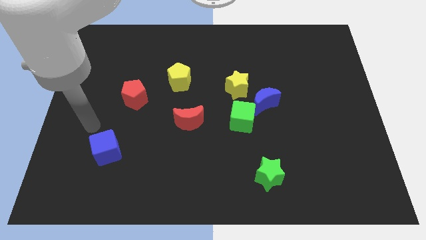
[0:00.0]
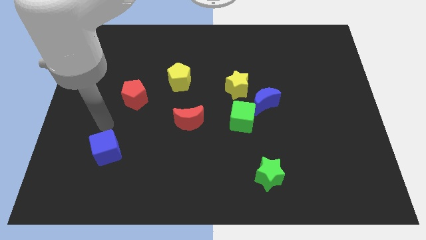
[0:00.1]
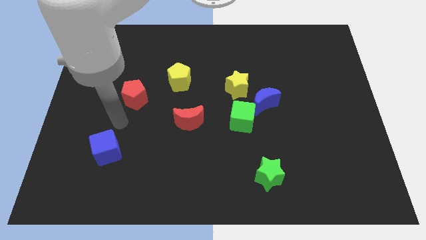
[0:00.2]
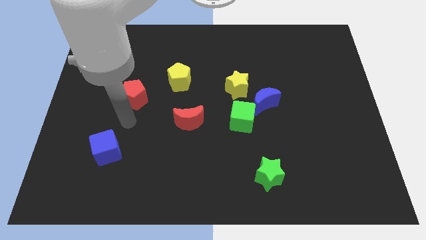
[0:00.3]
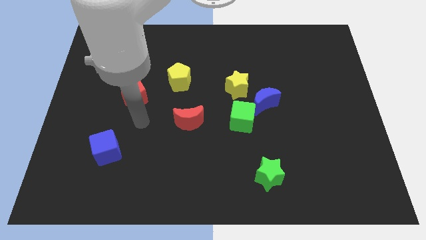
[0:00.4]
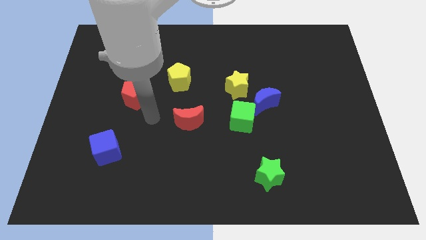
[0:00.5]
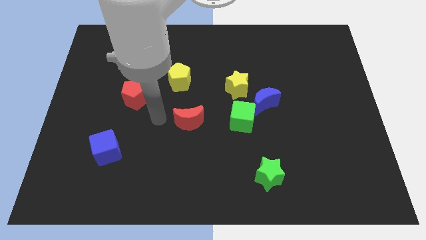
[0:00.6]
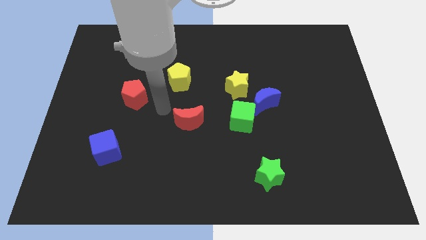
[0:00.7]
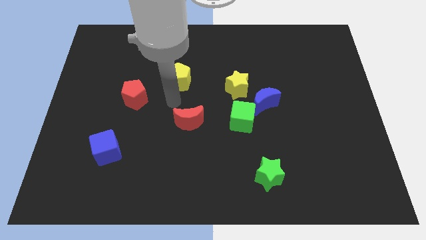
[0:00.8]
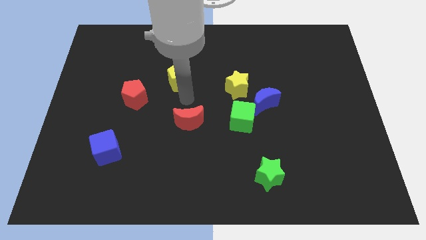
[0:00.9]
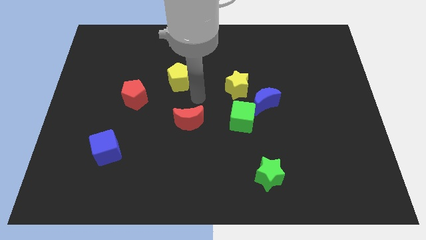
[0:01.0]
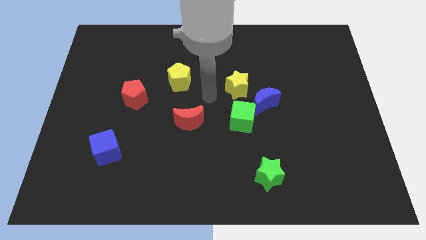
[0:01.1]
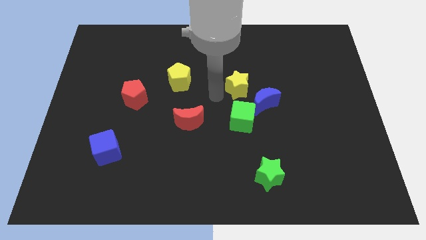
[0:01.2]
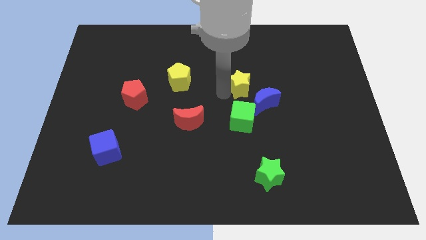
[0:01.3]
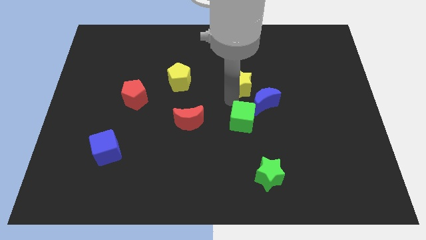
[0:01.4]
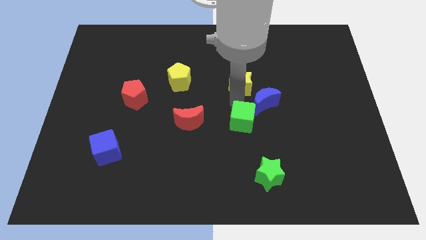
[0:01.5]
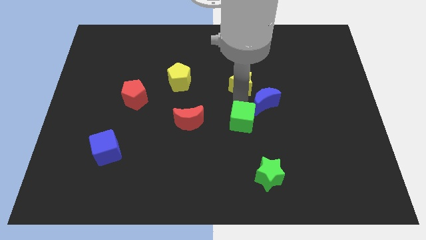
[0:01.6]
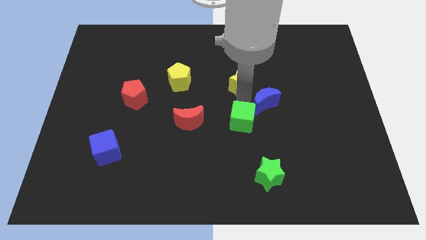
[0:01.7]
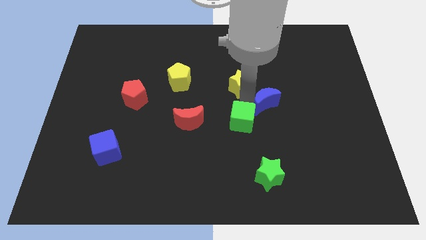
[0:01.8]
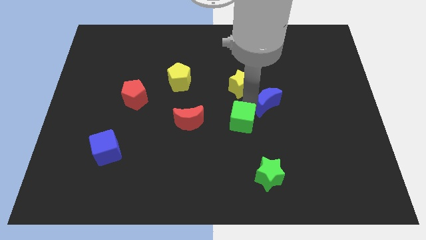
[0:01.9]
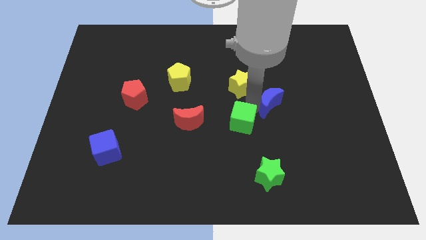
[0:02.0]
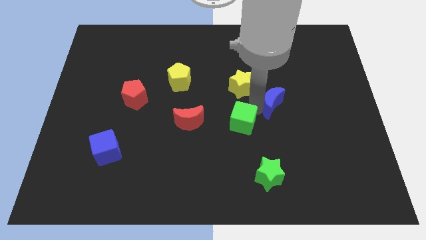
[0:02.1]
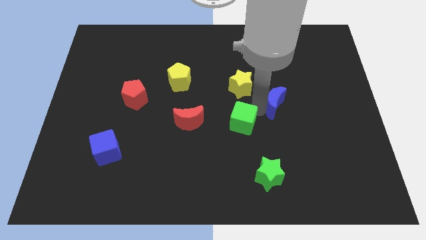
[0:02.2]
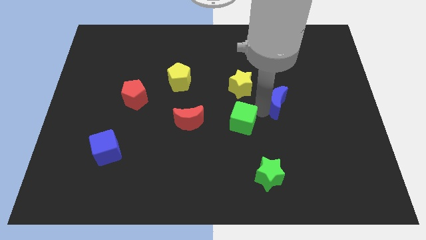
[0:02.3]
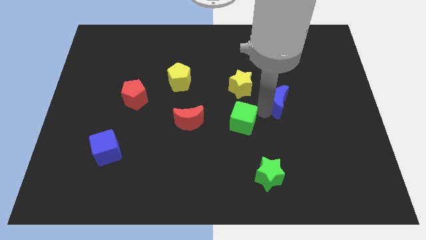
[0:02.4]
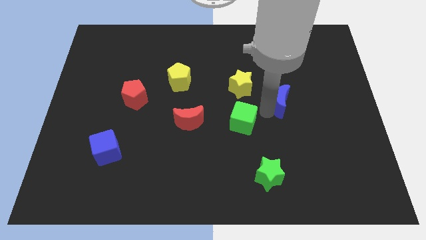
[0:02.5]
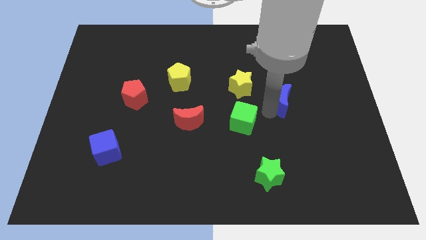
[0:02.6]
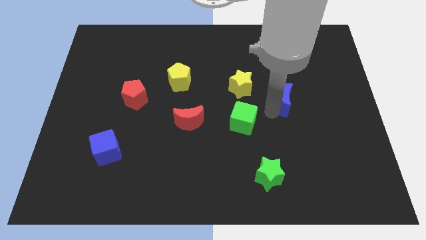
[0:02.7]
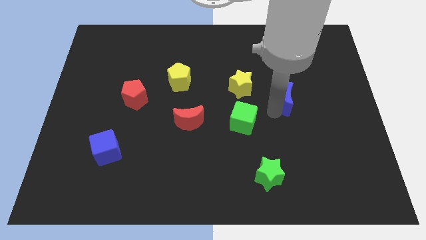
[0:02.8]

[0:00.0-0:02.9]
pull the blue moon apart from the green cube and yellow star

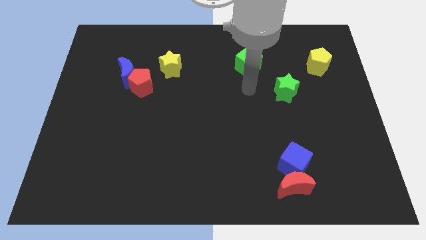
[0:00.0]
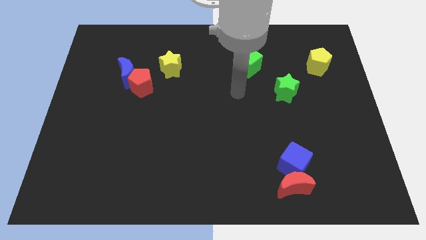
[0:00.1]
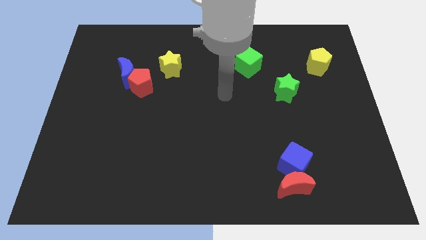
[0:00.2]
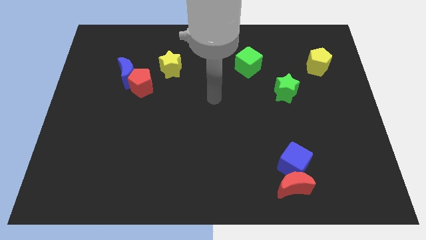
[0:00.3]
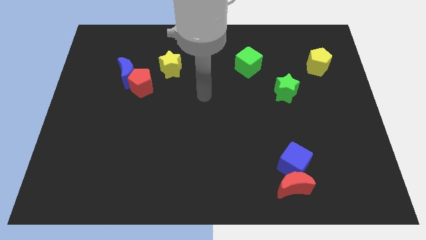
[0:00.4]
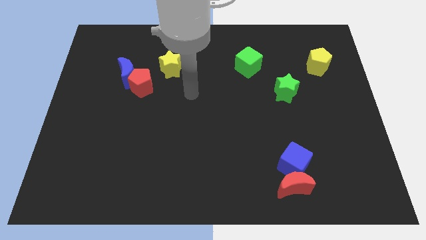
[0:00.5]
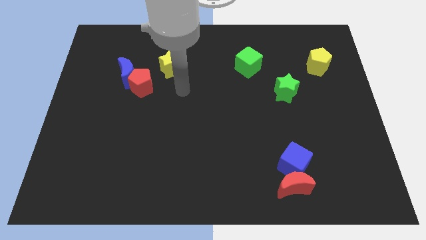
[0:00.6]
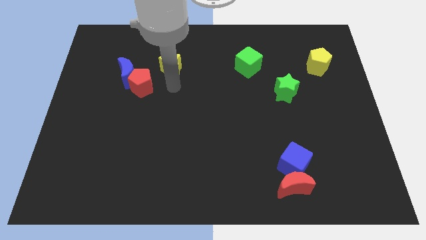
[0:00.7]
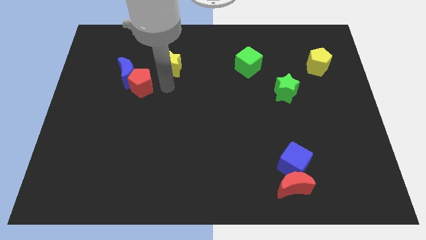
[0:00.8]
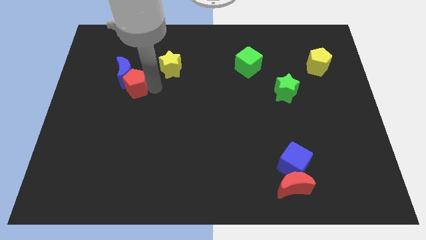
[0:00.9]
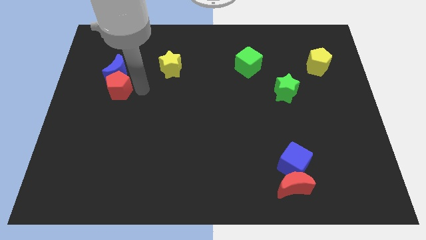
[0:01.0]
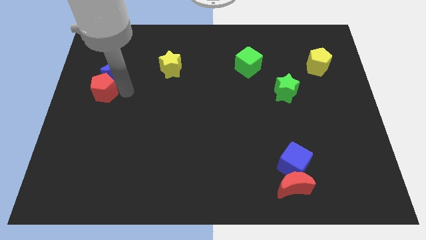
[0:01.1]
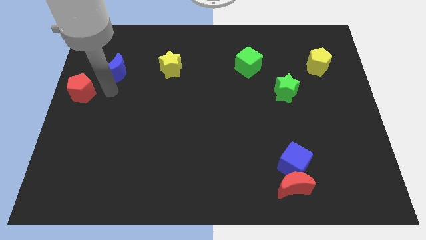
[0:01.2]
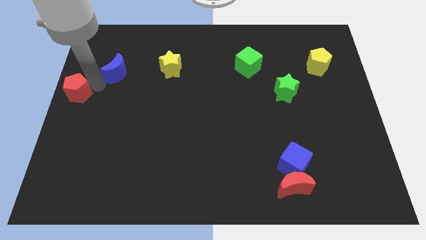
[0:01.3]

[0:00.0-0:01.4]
separate the blue moon from the red pentagon

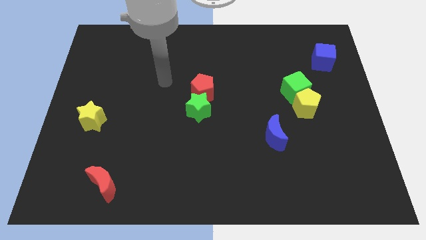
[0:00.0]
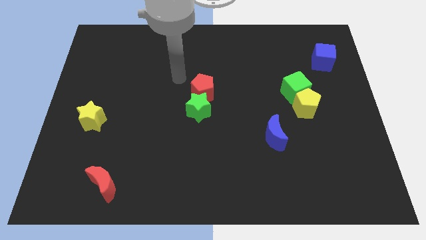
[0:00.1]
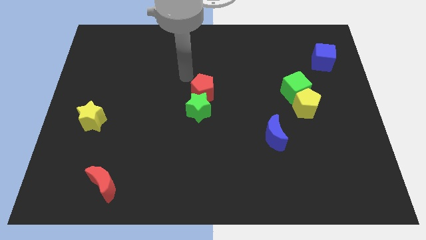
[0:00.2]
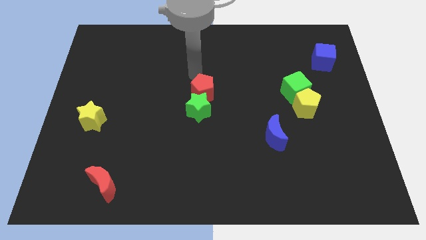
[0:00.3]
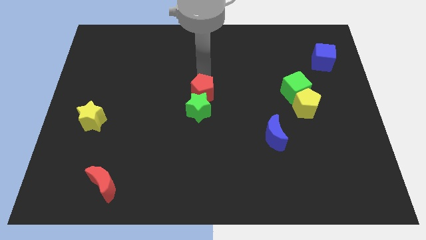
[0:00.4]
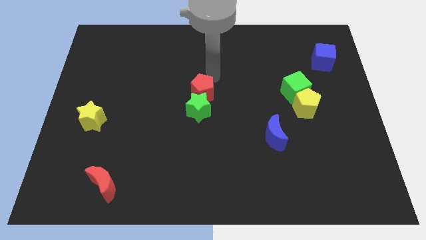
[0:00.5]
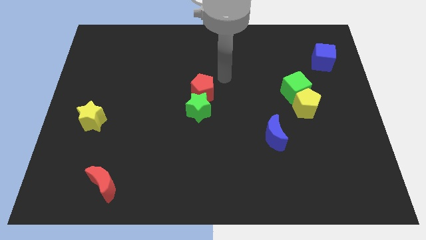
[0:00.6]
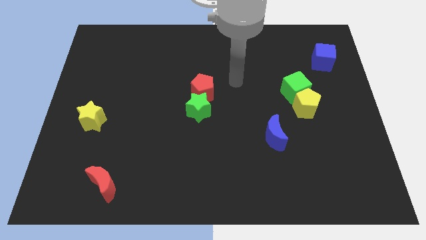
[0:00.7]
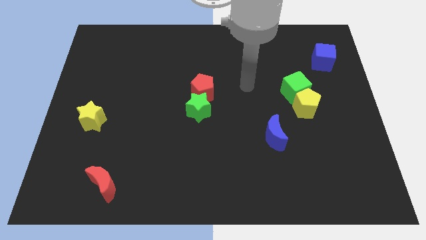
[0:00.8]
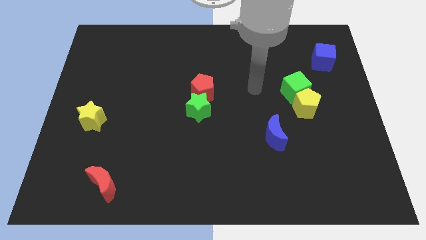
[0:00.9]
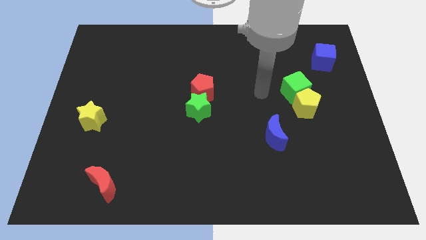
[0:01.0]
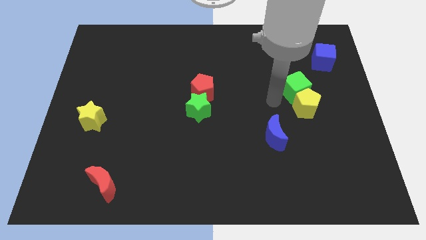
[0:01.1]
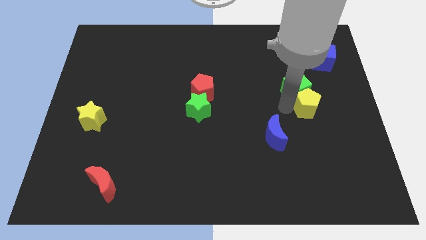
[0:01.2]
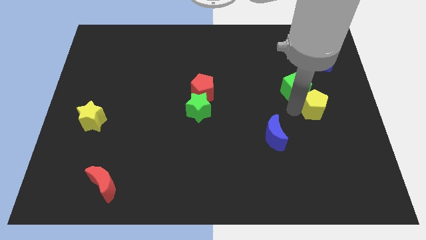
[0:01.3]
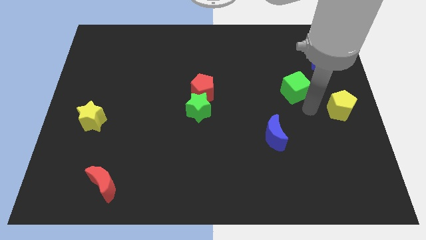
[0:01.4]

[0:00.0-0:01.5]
pull the green cube apart from the yellow pentagon

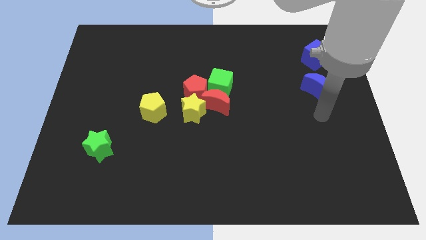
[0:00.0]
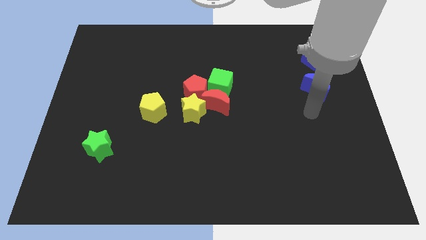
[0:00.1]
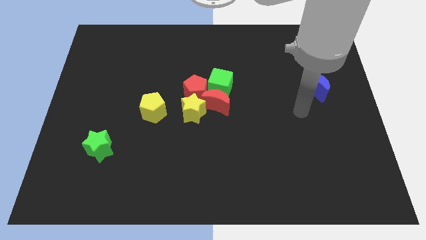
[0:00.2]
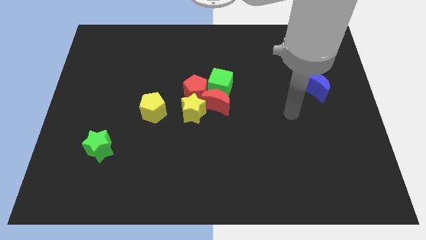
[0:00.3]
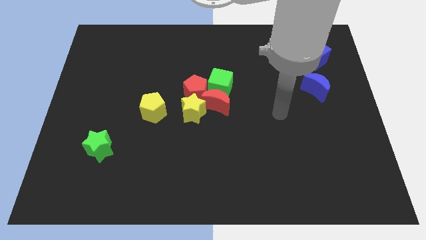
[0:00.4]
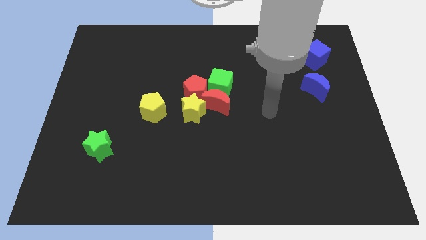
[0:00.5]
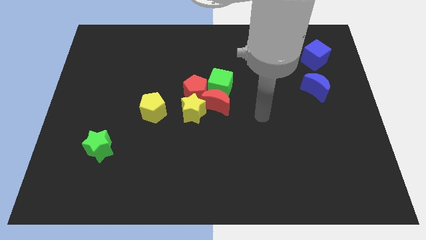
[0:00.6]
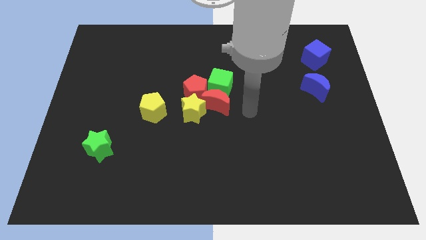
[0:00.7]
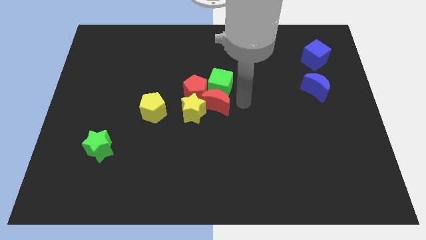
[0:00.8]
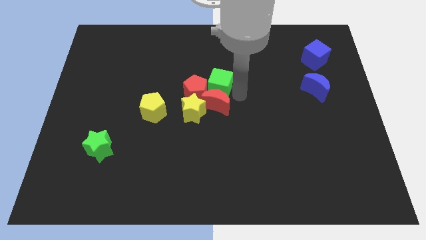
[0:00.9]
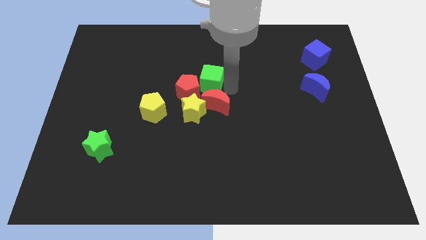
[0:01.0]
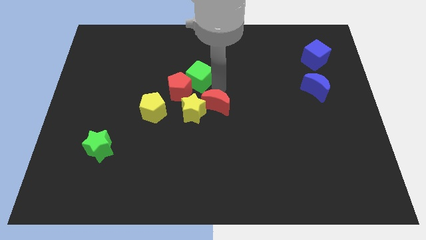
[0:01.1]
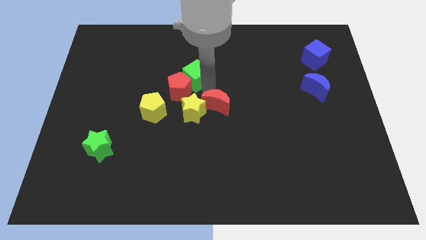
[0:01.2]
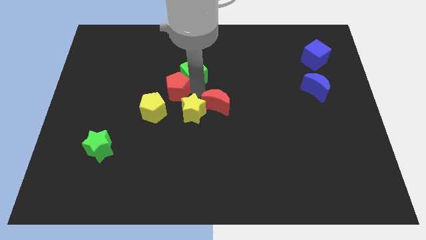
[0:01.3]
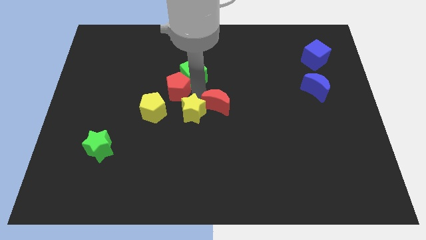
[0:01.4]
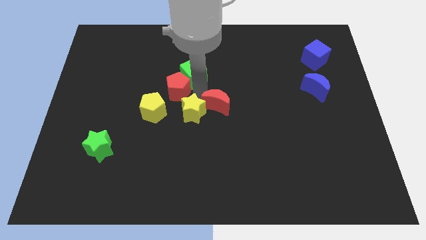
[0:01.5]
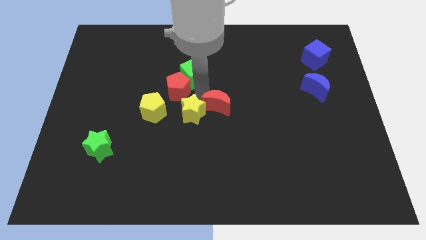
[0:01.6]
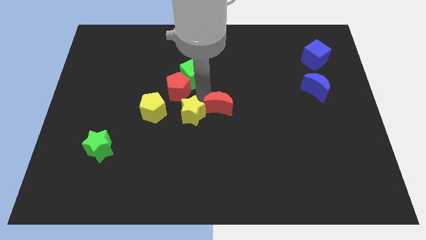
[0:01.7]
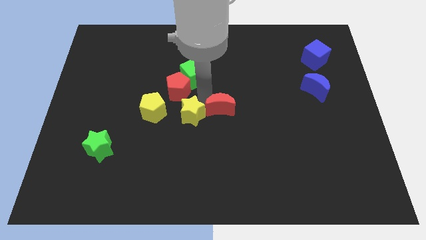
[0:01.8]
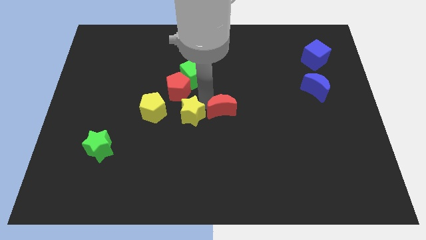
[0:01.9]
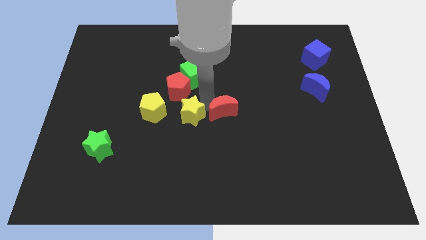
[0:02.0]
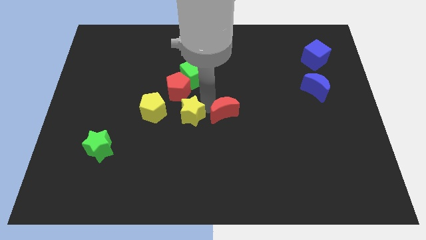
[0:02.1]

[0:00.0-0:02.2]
pull the red moon apart from the group of blocks

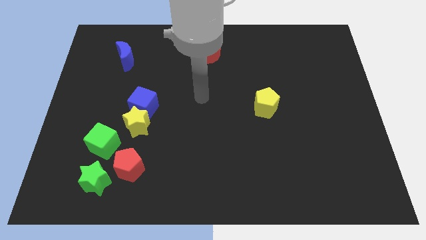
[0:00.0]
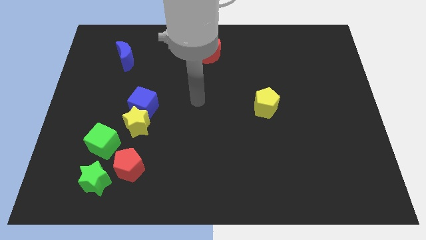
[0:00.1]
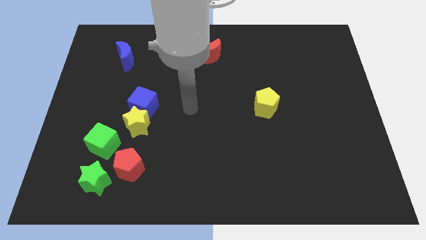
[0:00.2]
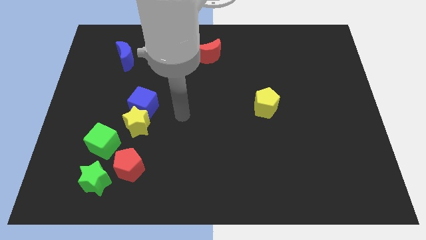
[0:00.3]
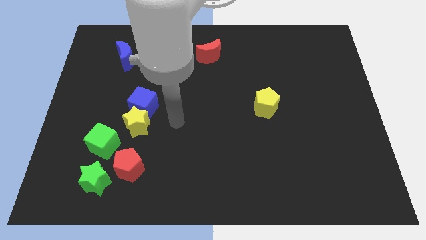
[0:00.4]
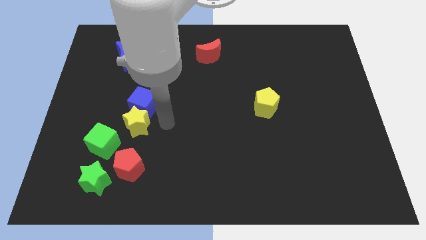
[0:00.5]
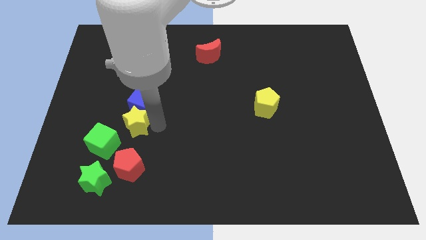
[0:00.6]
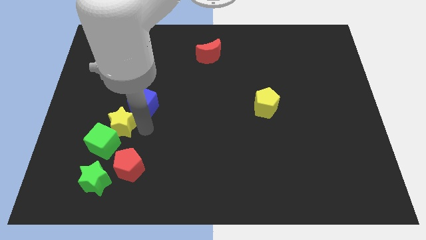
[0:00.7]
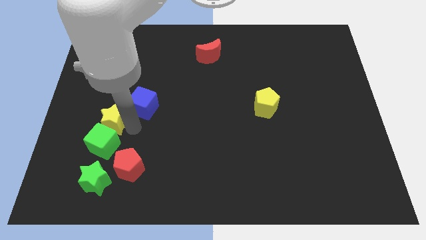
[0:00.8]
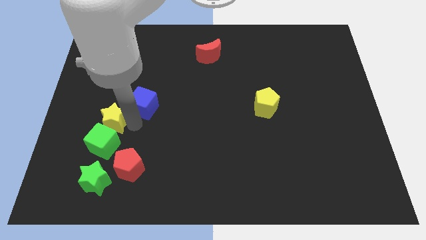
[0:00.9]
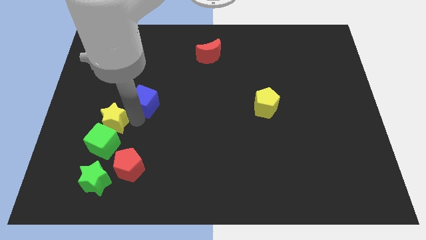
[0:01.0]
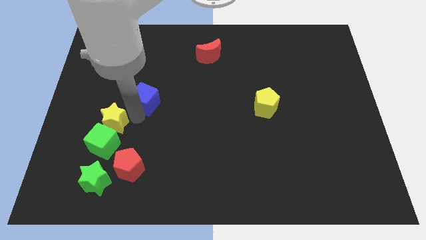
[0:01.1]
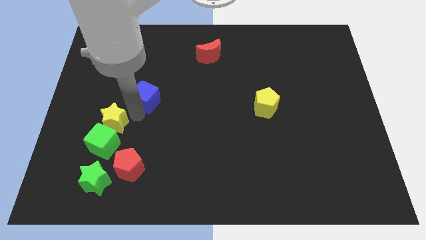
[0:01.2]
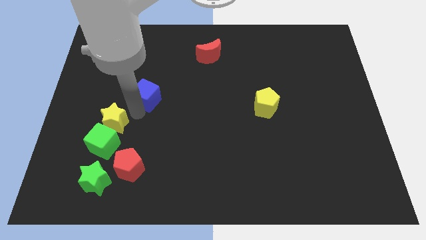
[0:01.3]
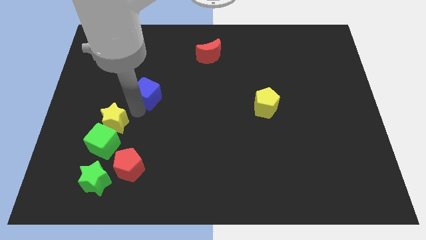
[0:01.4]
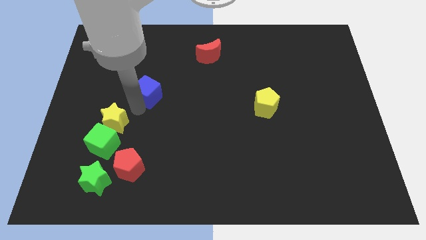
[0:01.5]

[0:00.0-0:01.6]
move the blue cube away from the yellow star
